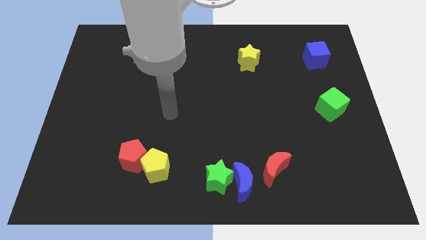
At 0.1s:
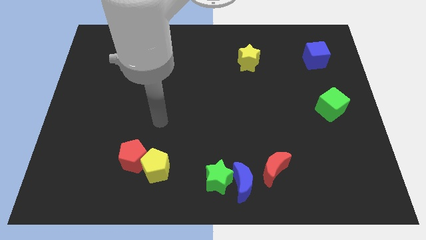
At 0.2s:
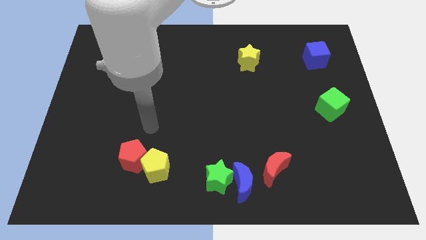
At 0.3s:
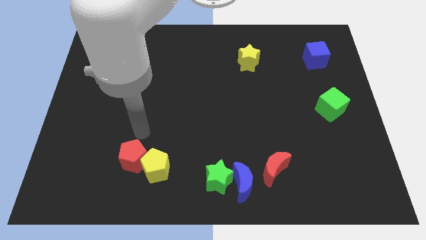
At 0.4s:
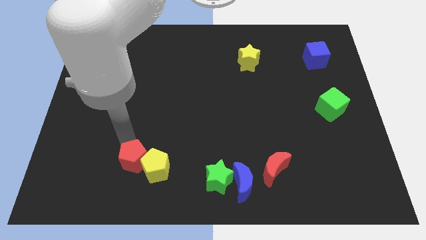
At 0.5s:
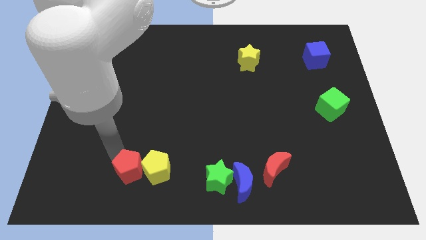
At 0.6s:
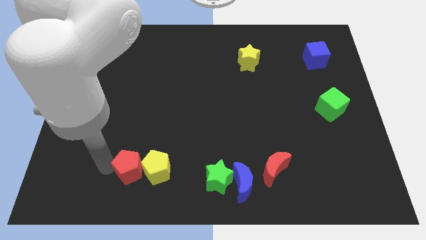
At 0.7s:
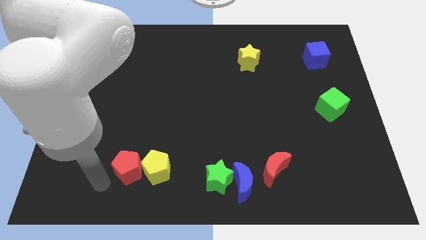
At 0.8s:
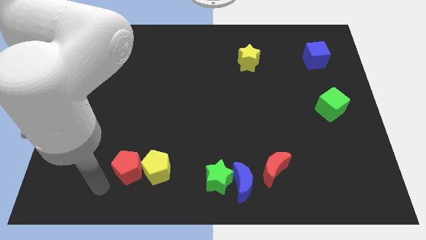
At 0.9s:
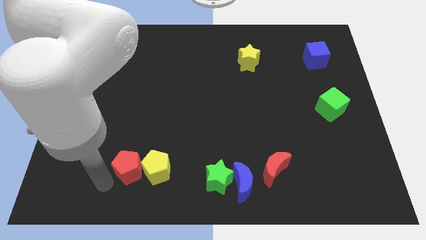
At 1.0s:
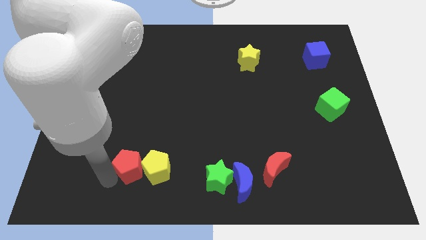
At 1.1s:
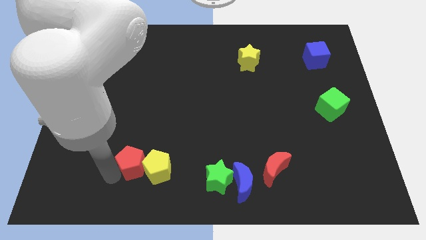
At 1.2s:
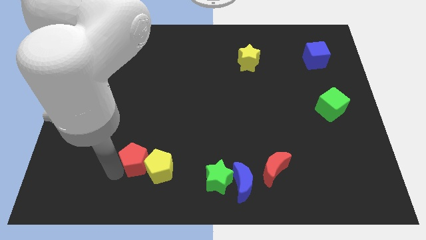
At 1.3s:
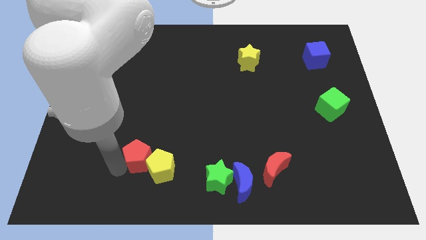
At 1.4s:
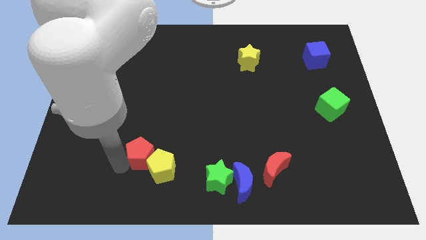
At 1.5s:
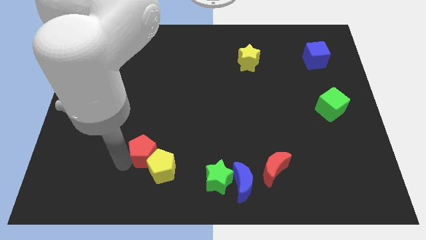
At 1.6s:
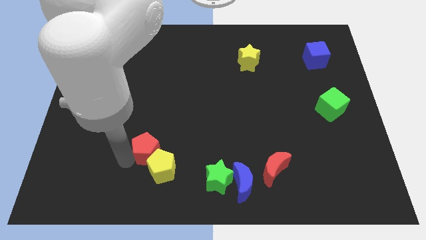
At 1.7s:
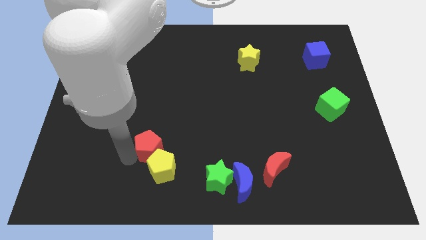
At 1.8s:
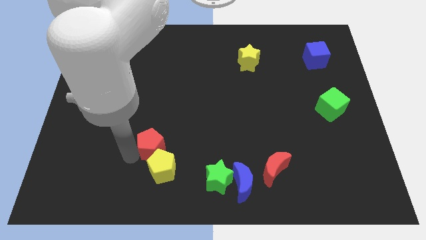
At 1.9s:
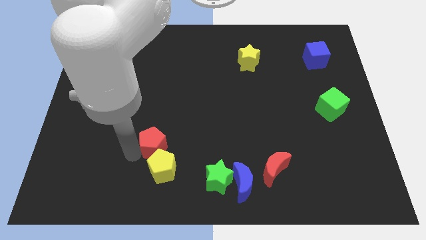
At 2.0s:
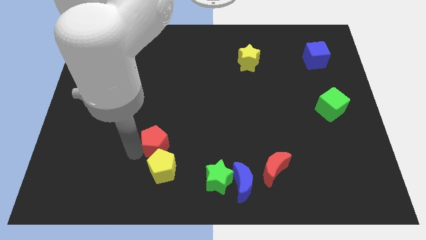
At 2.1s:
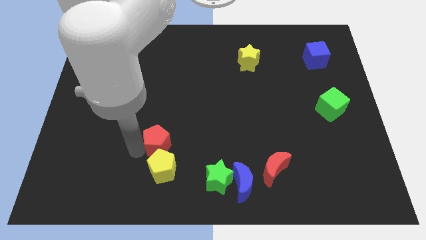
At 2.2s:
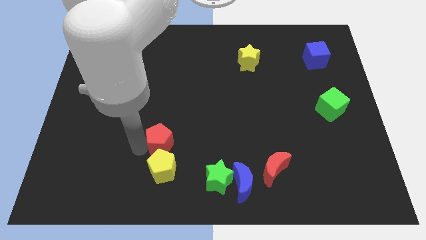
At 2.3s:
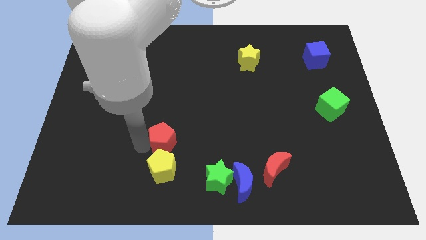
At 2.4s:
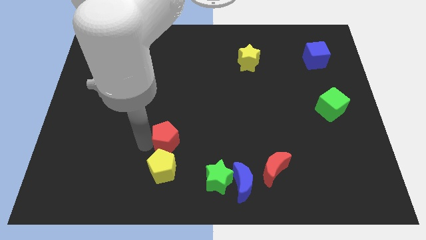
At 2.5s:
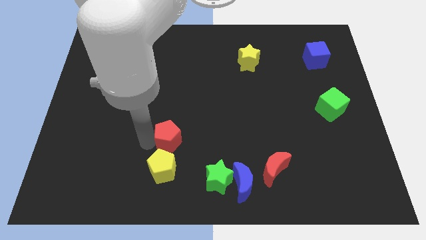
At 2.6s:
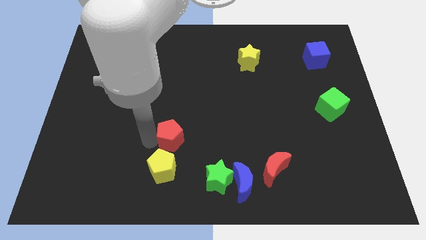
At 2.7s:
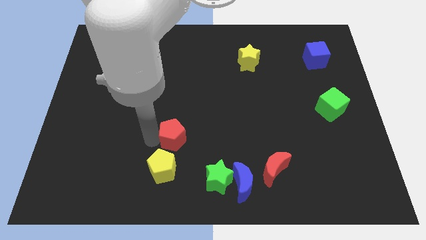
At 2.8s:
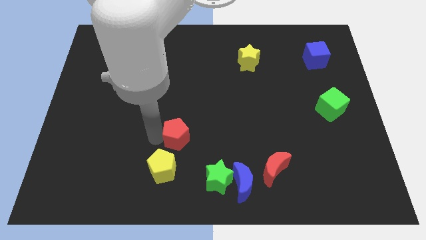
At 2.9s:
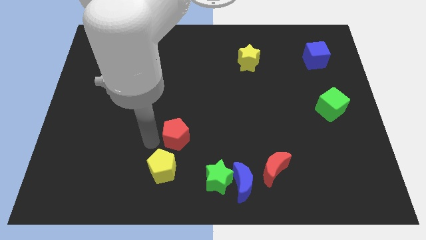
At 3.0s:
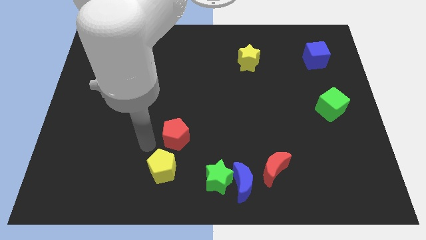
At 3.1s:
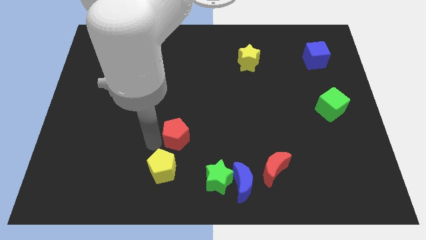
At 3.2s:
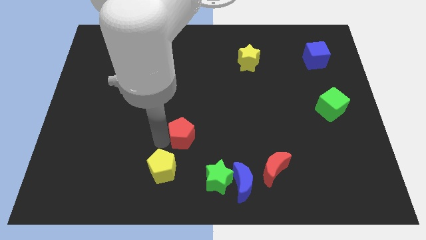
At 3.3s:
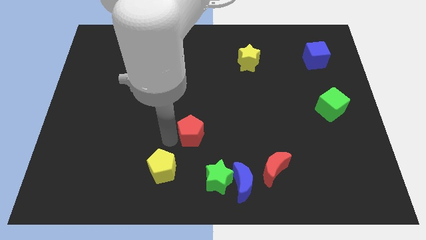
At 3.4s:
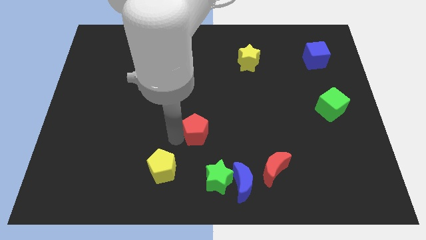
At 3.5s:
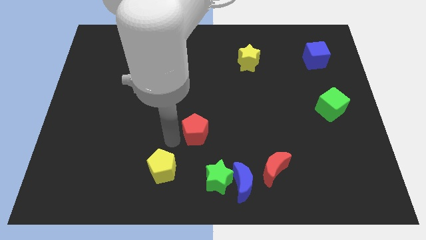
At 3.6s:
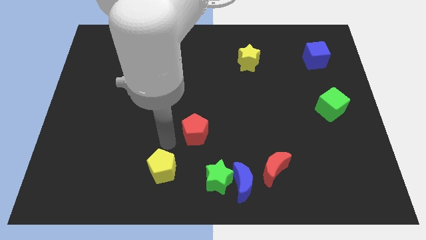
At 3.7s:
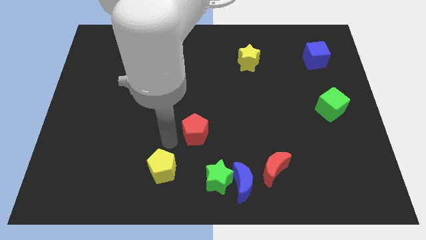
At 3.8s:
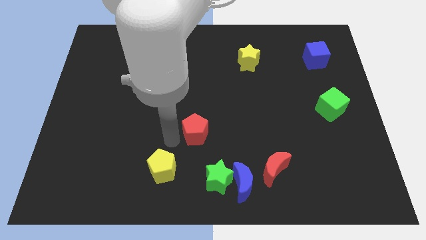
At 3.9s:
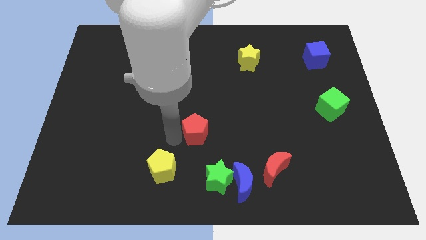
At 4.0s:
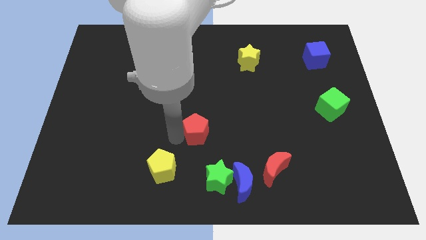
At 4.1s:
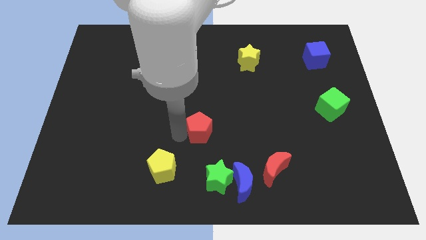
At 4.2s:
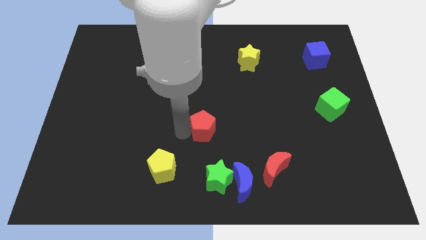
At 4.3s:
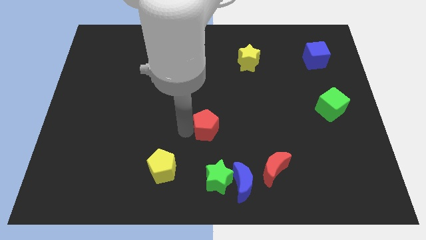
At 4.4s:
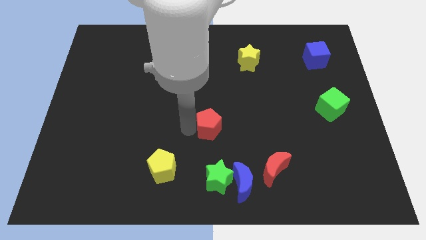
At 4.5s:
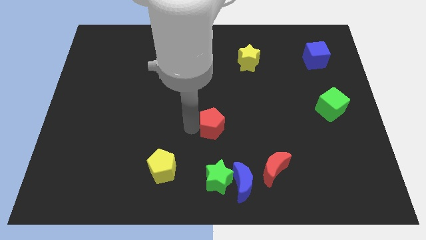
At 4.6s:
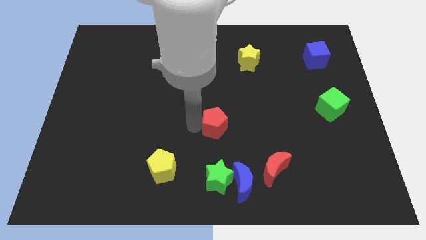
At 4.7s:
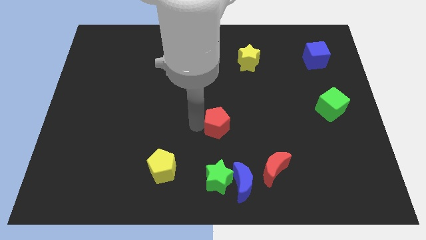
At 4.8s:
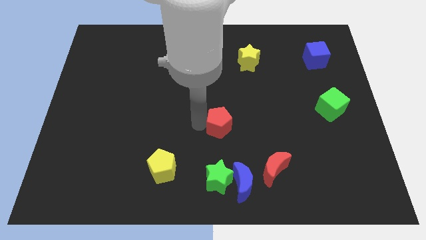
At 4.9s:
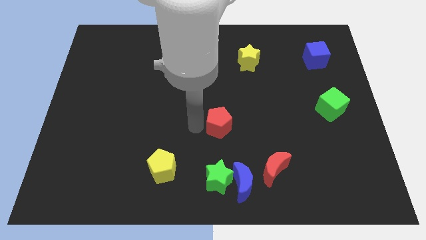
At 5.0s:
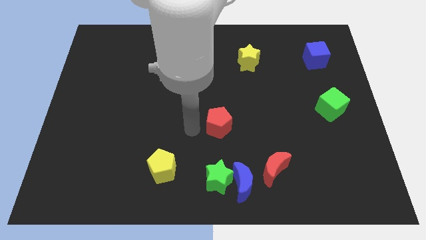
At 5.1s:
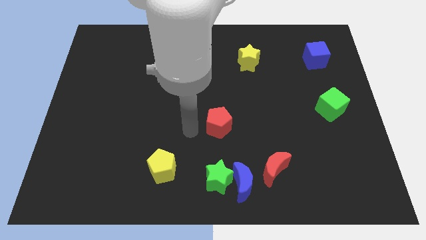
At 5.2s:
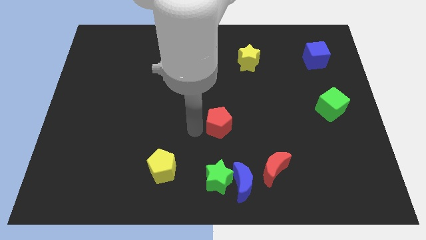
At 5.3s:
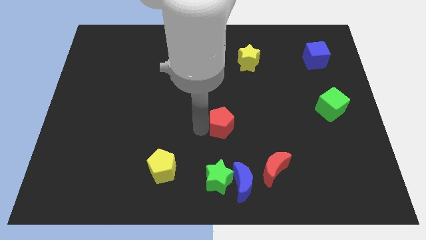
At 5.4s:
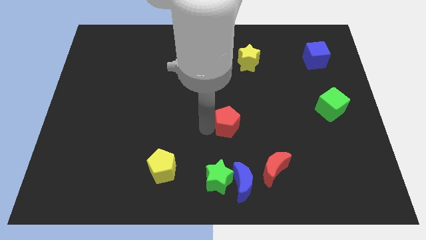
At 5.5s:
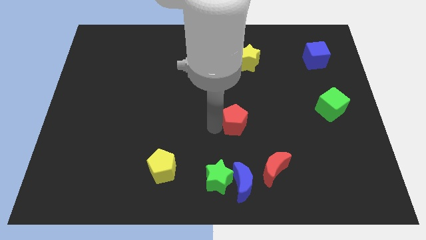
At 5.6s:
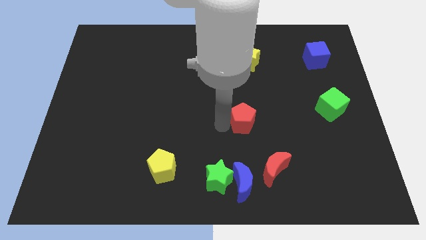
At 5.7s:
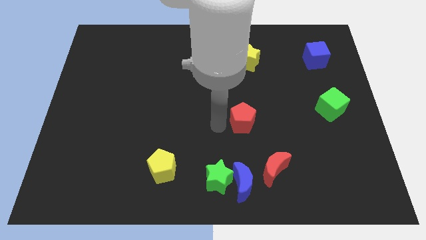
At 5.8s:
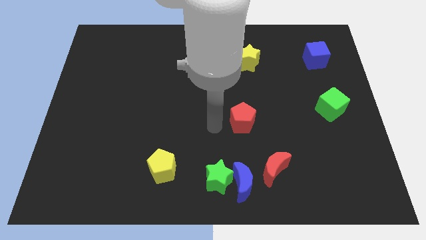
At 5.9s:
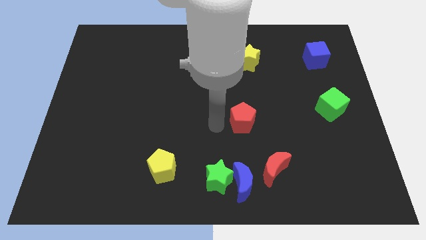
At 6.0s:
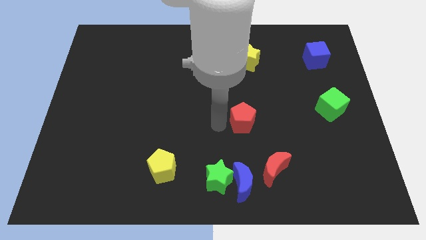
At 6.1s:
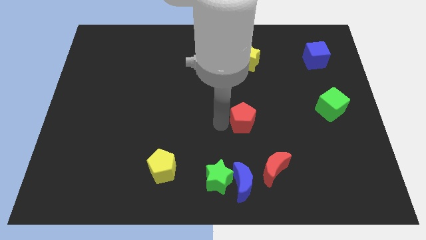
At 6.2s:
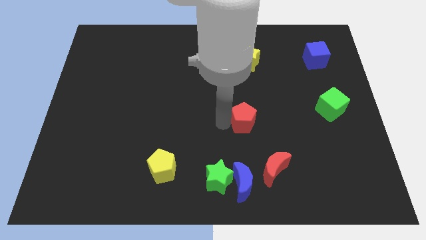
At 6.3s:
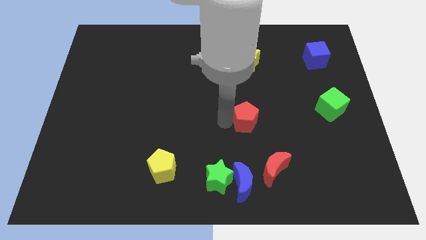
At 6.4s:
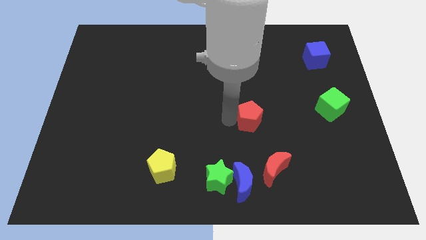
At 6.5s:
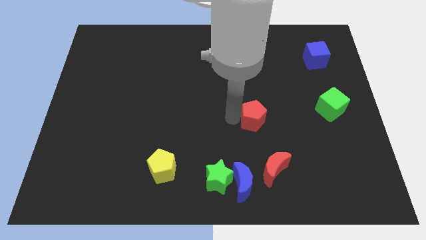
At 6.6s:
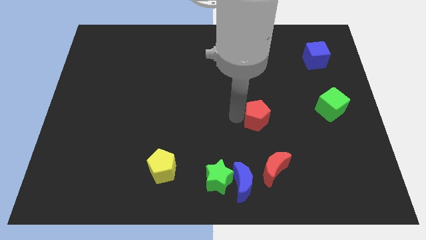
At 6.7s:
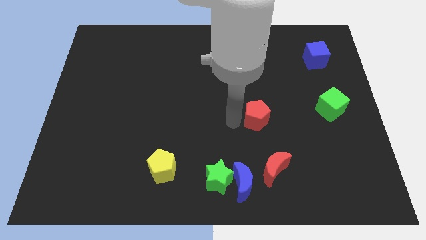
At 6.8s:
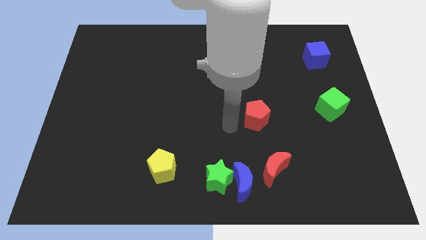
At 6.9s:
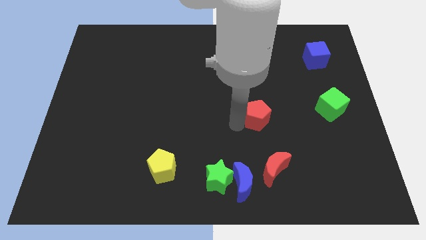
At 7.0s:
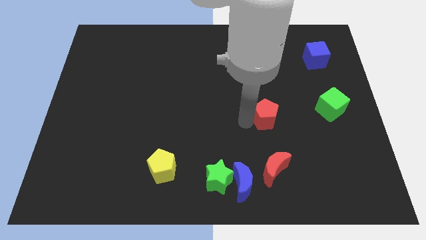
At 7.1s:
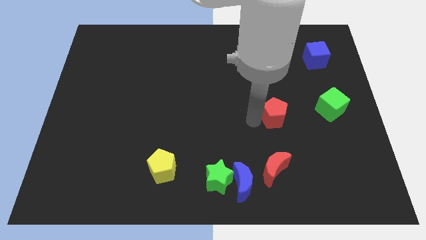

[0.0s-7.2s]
move the red pentagon to the left side of the green cube

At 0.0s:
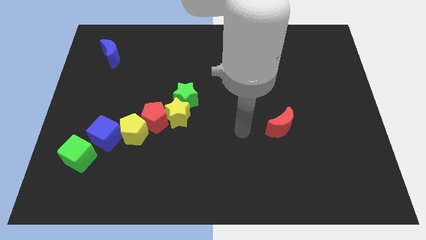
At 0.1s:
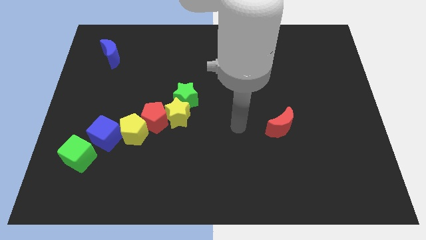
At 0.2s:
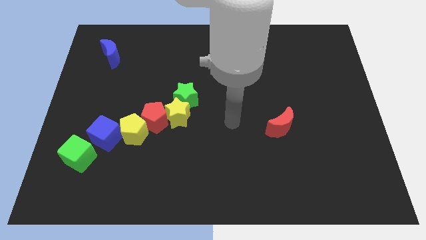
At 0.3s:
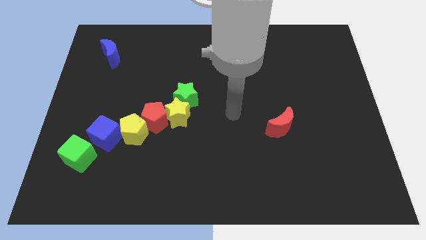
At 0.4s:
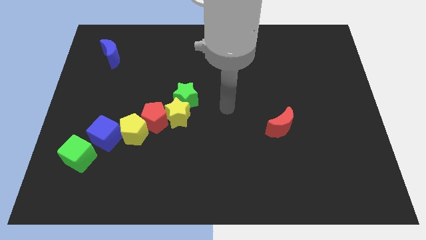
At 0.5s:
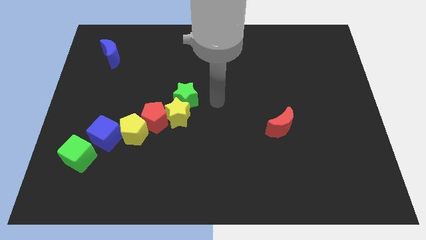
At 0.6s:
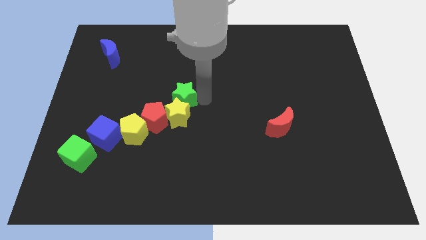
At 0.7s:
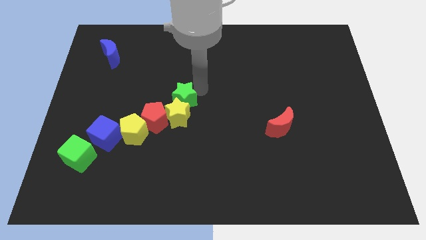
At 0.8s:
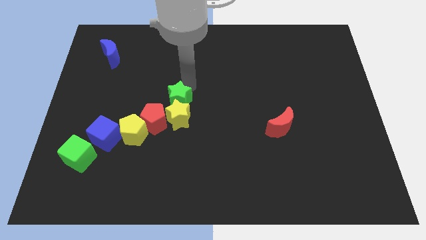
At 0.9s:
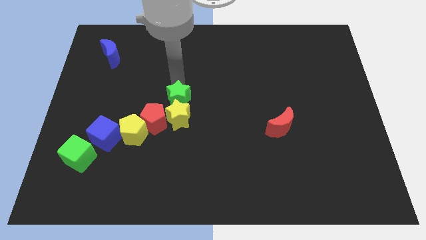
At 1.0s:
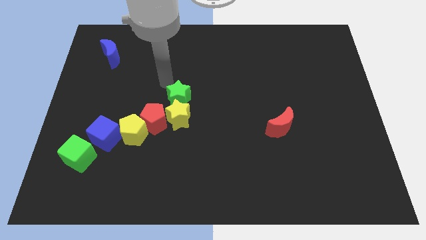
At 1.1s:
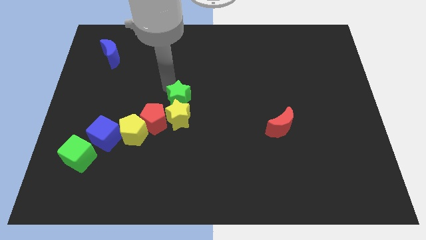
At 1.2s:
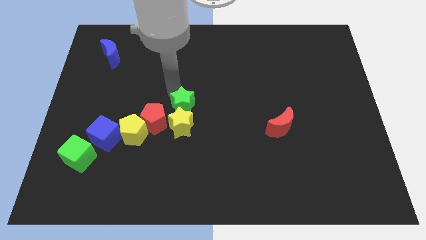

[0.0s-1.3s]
push the green star to the right side of the red pentagon

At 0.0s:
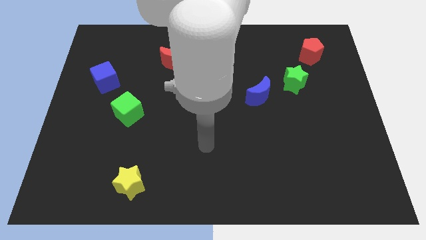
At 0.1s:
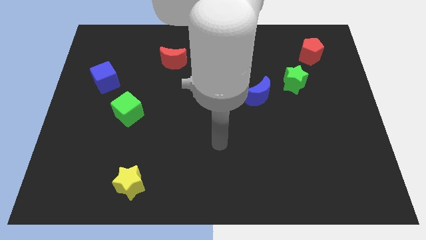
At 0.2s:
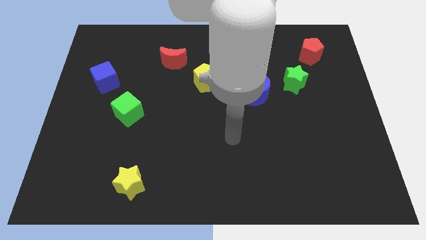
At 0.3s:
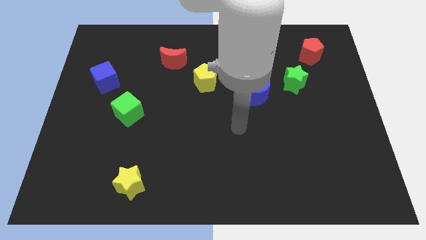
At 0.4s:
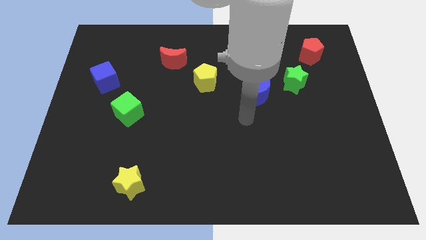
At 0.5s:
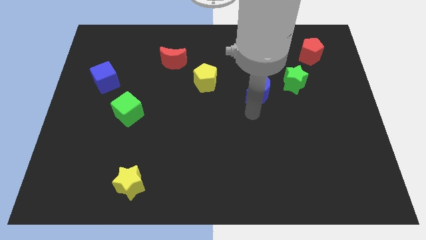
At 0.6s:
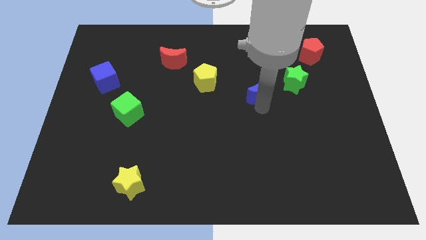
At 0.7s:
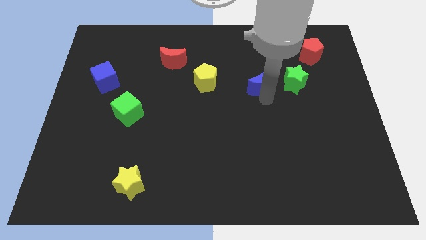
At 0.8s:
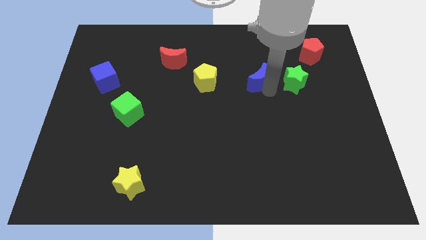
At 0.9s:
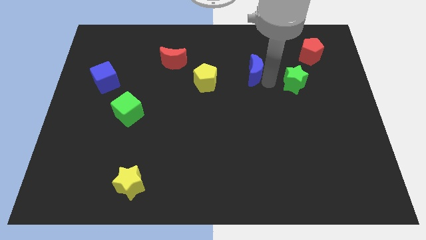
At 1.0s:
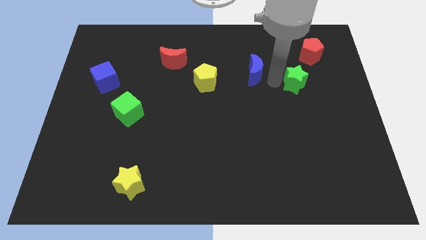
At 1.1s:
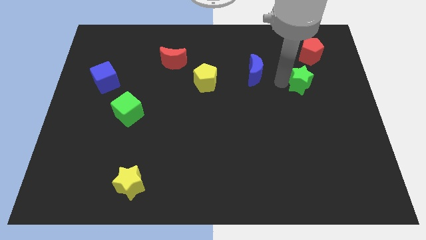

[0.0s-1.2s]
push the green star to the bottom side of the red pentagon
